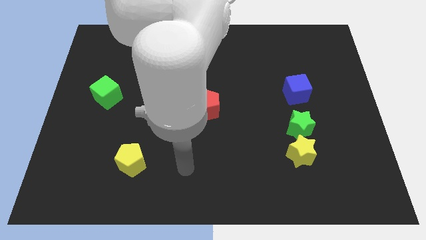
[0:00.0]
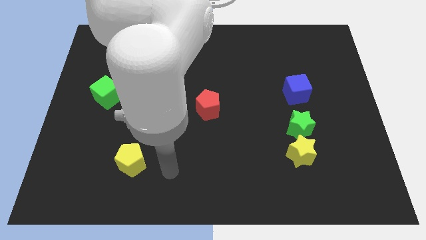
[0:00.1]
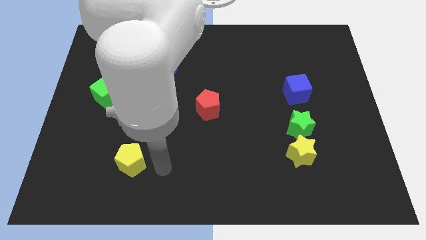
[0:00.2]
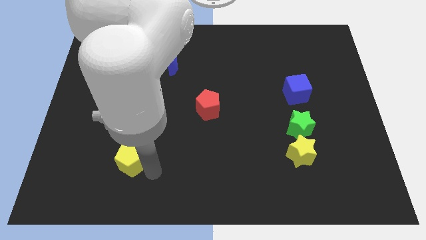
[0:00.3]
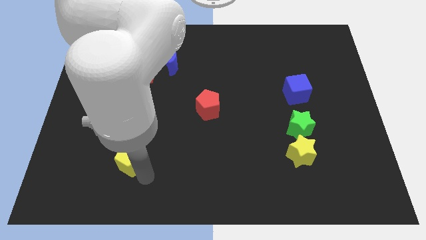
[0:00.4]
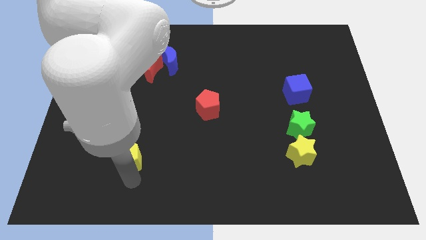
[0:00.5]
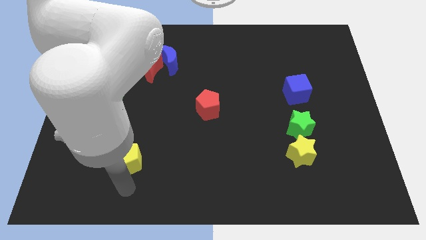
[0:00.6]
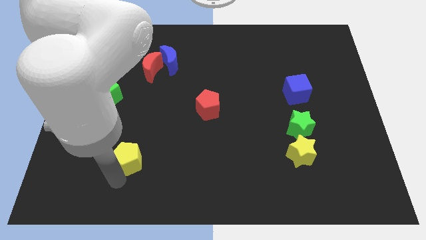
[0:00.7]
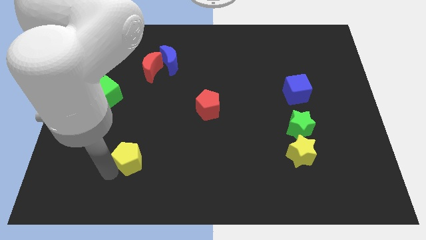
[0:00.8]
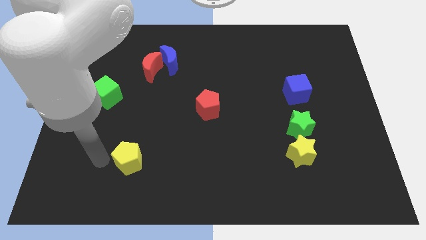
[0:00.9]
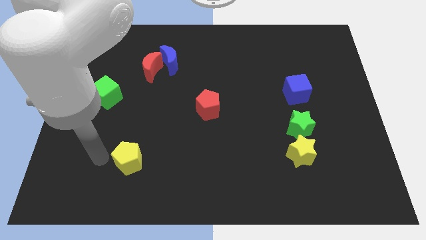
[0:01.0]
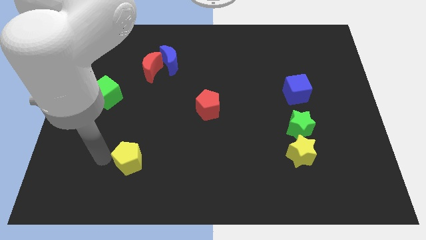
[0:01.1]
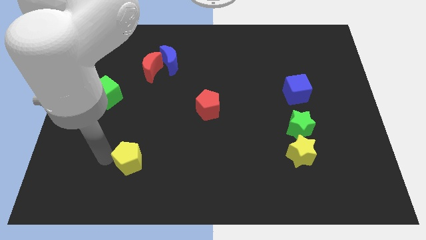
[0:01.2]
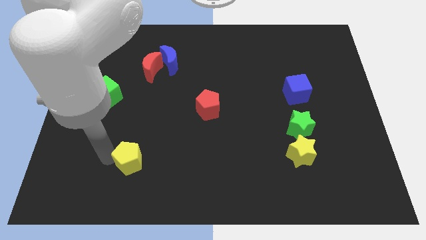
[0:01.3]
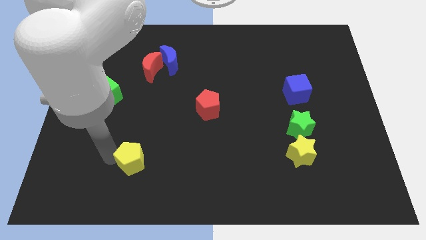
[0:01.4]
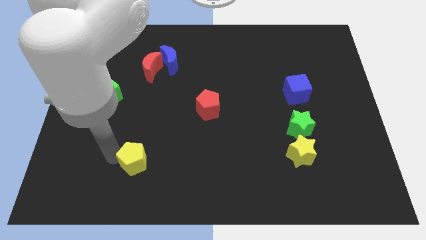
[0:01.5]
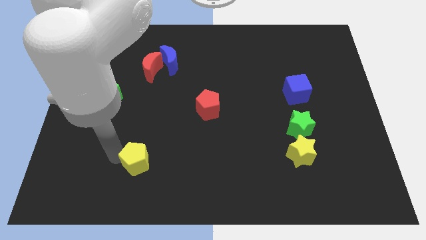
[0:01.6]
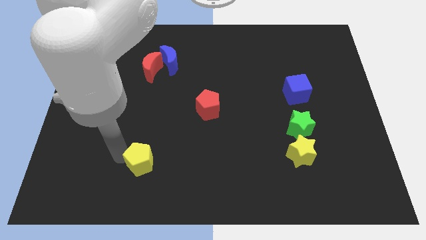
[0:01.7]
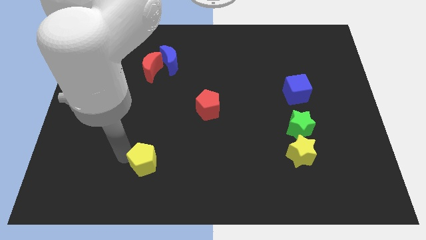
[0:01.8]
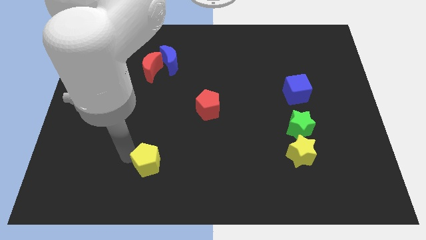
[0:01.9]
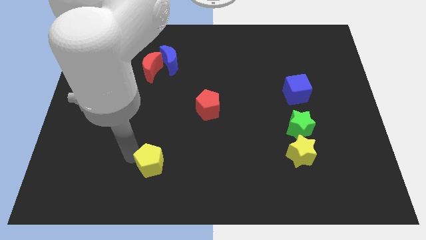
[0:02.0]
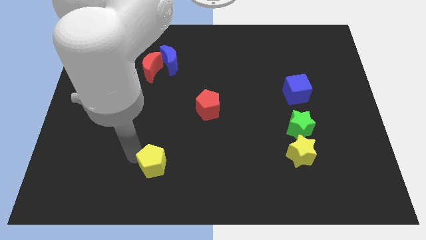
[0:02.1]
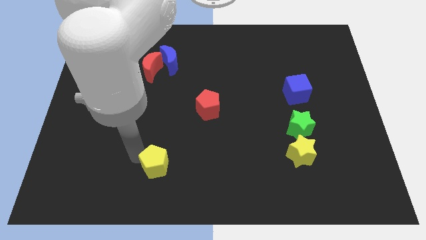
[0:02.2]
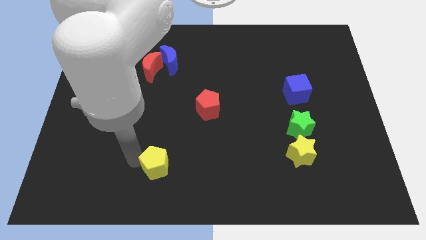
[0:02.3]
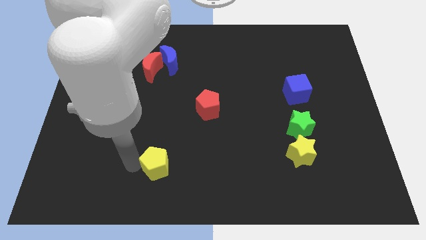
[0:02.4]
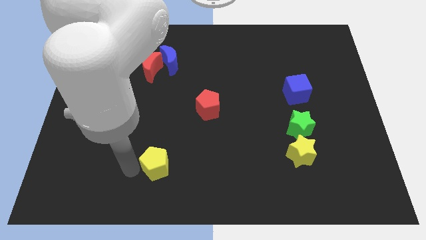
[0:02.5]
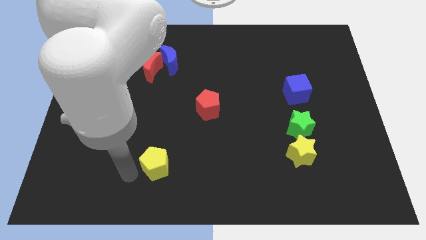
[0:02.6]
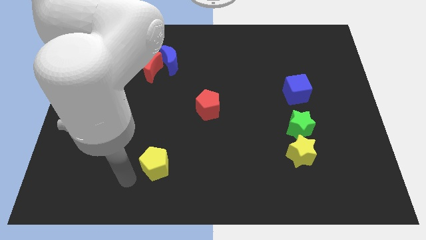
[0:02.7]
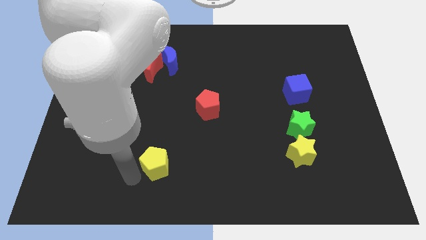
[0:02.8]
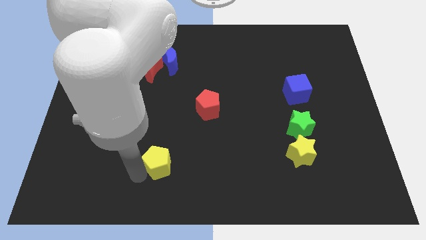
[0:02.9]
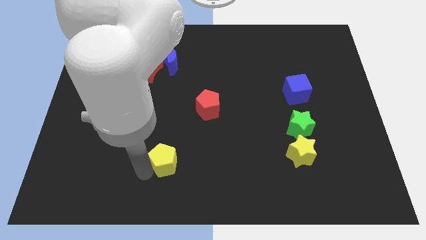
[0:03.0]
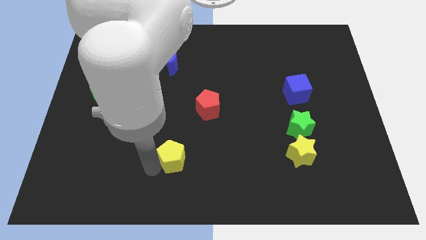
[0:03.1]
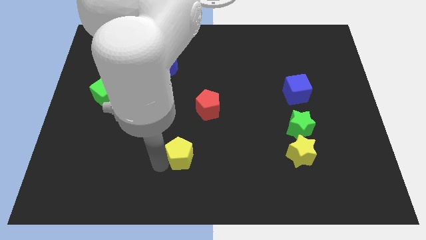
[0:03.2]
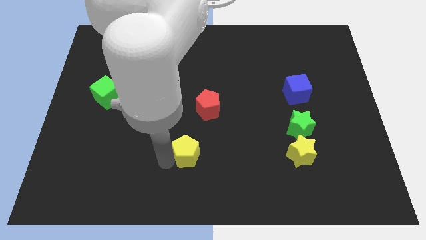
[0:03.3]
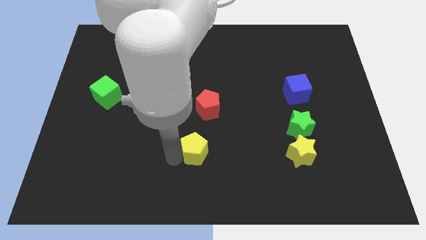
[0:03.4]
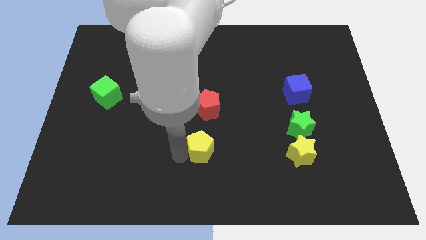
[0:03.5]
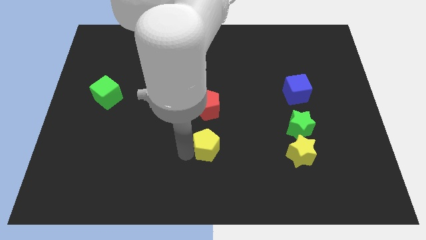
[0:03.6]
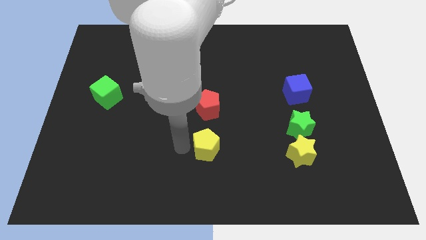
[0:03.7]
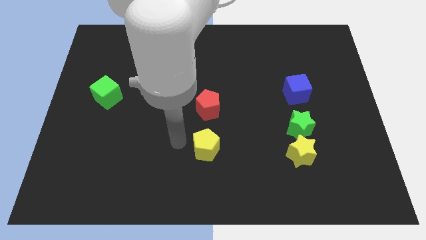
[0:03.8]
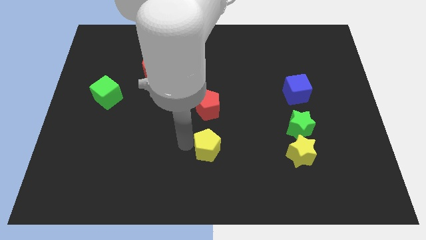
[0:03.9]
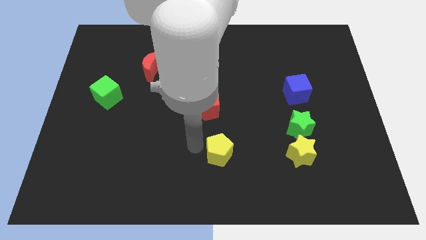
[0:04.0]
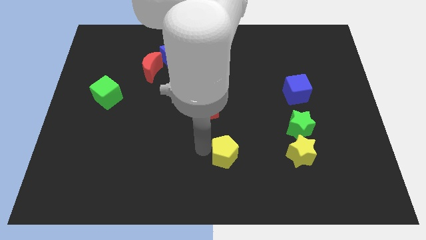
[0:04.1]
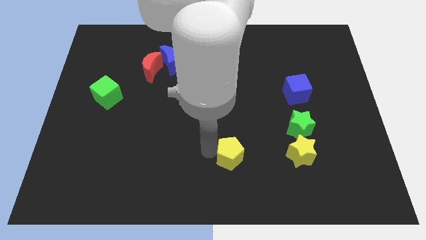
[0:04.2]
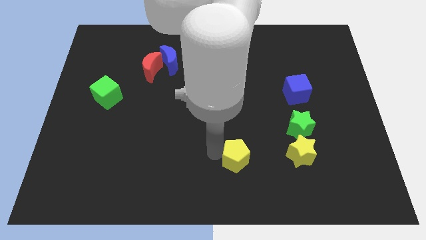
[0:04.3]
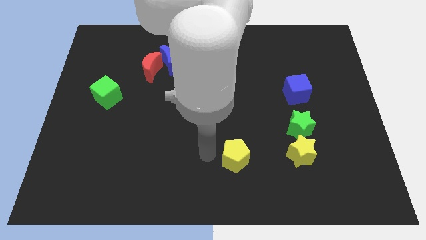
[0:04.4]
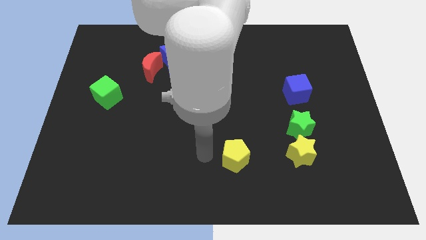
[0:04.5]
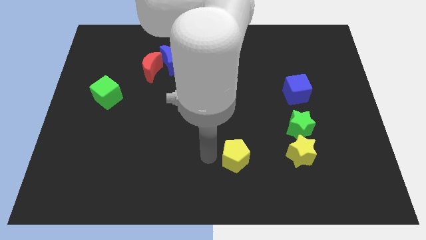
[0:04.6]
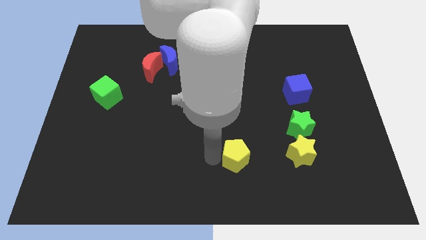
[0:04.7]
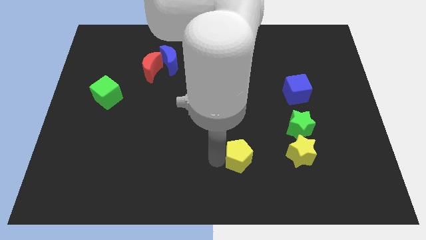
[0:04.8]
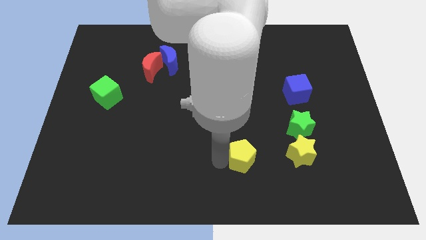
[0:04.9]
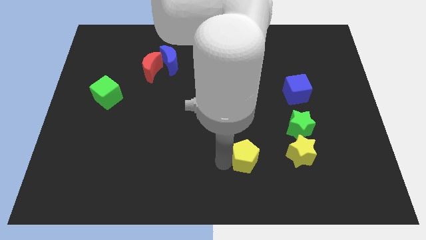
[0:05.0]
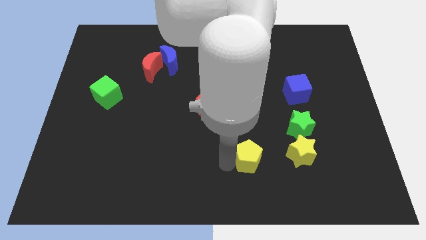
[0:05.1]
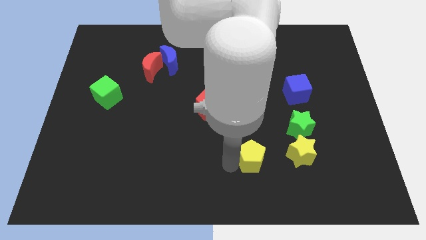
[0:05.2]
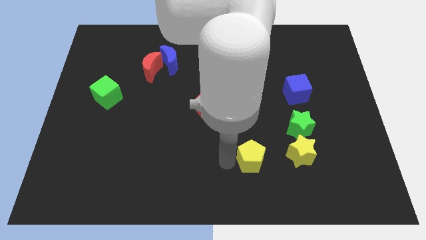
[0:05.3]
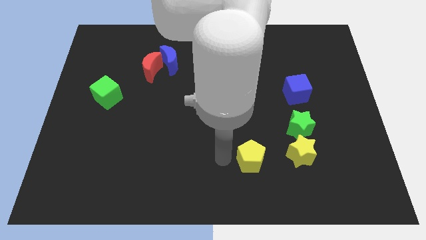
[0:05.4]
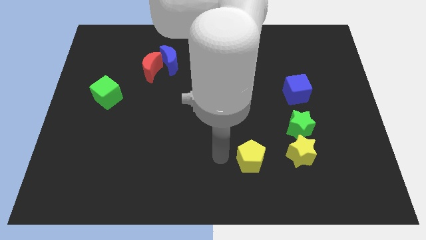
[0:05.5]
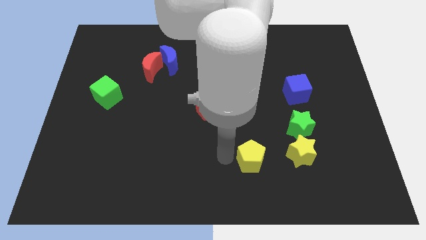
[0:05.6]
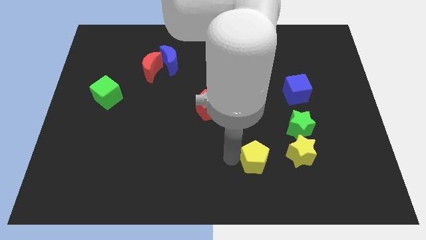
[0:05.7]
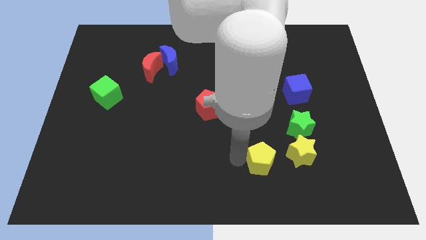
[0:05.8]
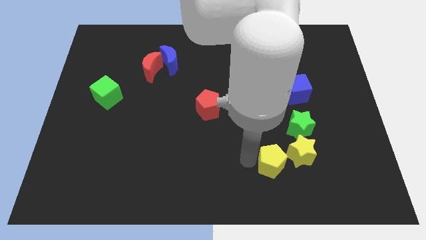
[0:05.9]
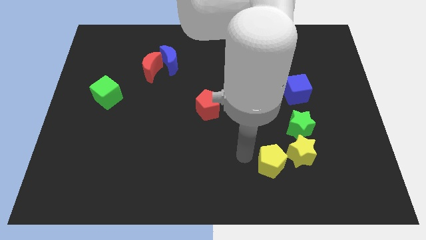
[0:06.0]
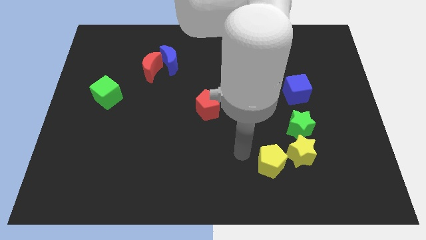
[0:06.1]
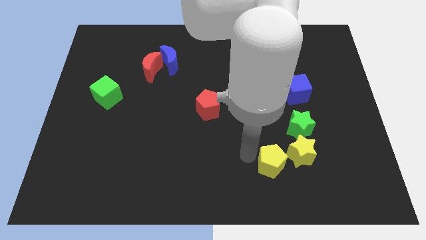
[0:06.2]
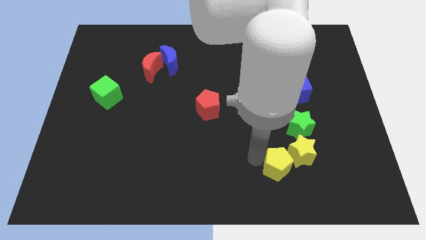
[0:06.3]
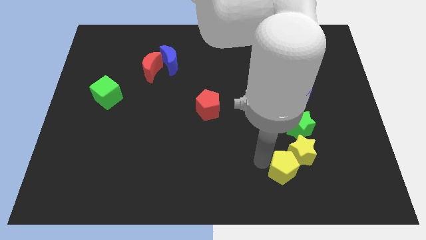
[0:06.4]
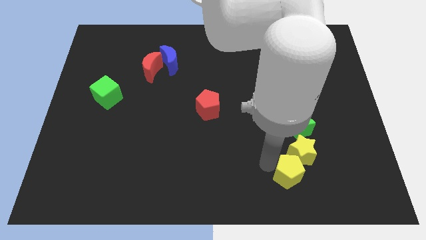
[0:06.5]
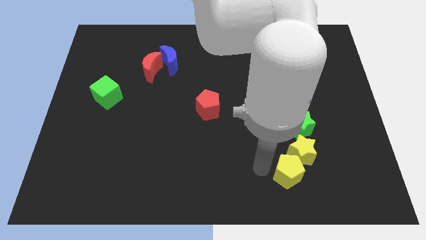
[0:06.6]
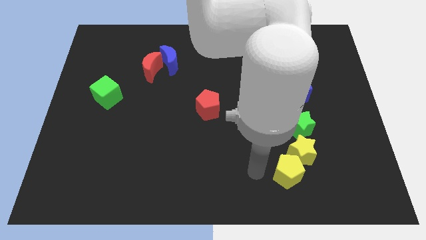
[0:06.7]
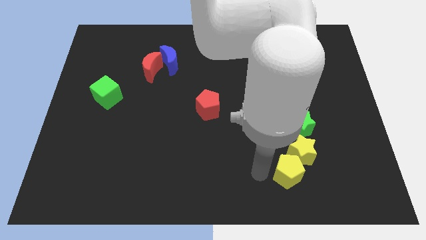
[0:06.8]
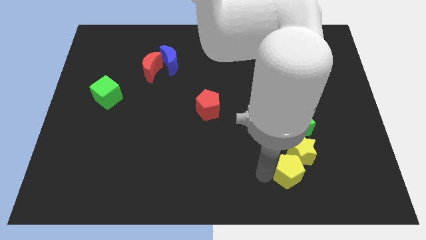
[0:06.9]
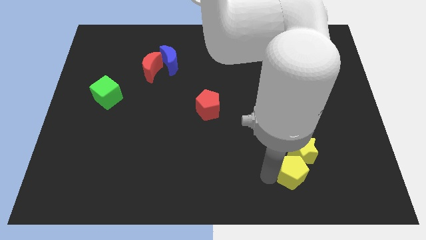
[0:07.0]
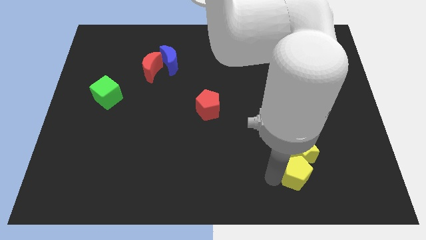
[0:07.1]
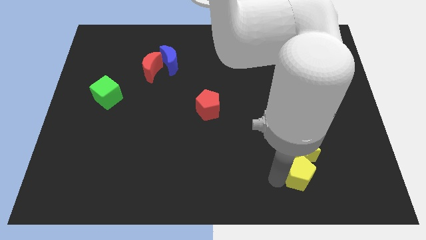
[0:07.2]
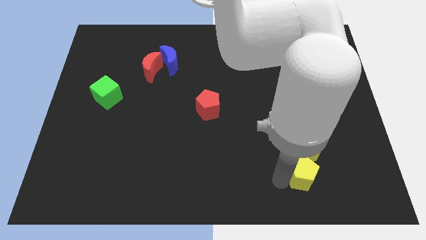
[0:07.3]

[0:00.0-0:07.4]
slide the yellow pentagon to the bottom right of the yellow star

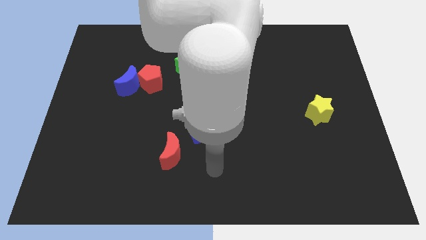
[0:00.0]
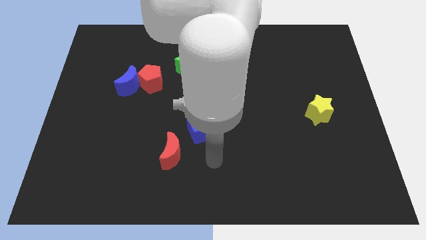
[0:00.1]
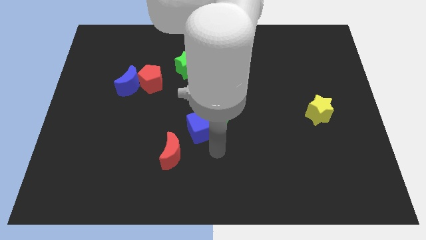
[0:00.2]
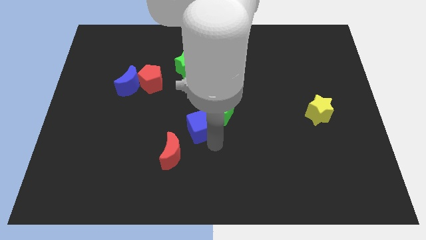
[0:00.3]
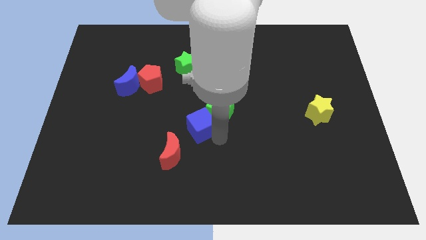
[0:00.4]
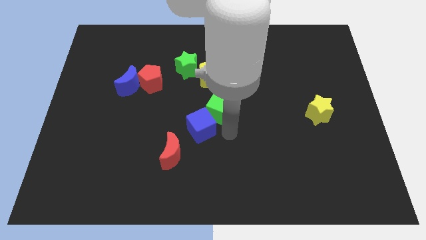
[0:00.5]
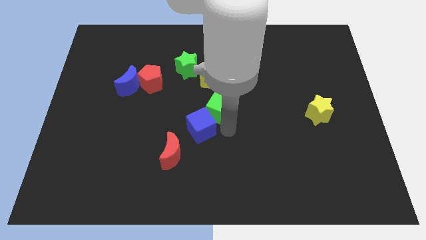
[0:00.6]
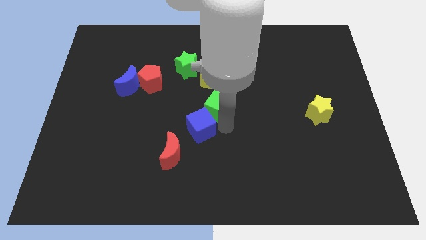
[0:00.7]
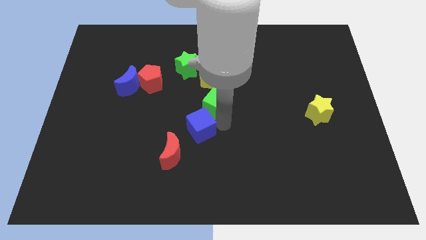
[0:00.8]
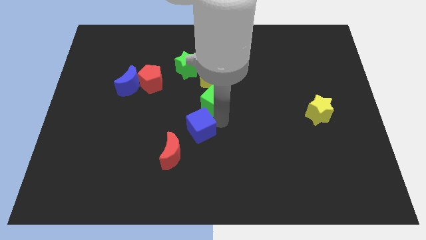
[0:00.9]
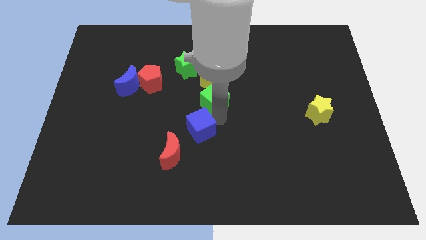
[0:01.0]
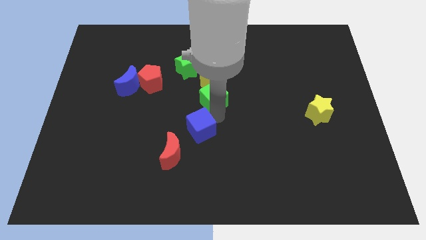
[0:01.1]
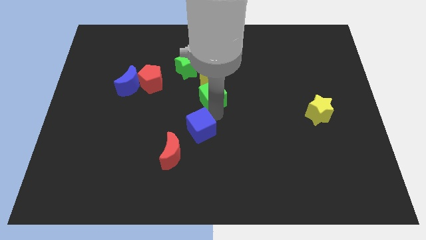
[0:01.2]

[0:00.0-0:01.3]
slide the green cube to the bottom right side of the green star
